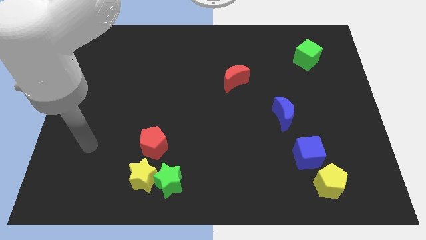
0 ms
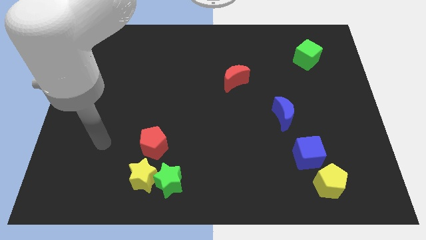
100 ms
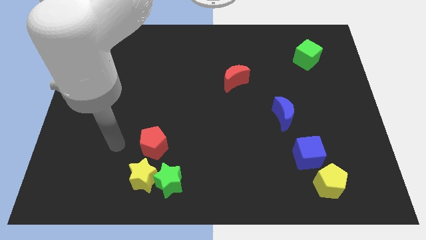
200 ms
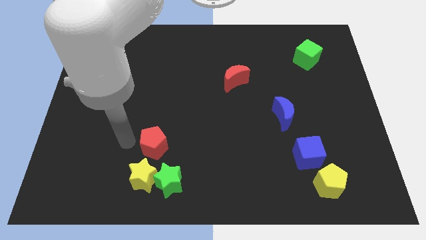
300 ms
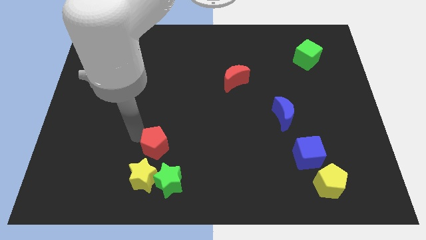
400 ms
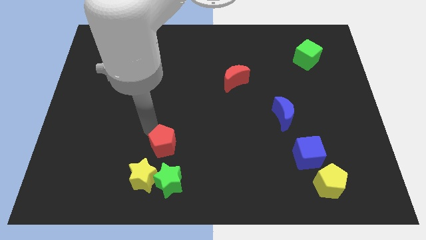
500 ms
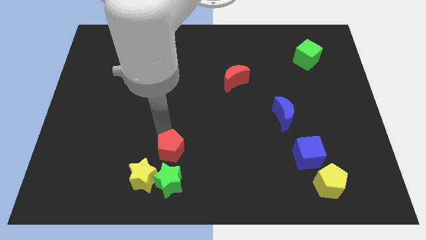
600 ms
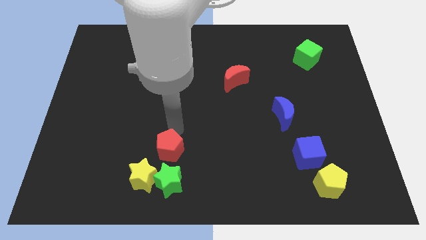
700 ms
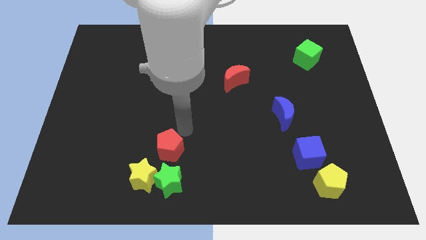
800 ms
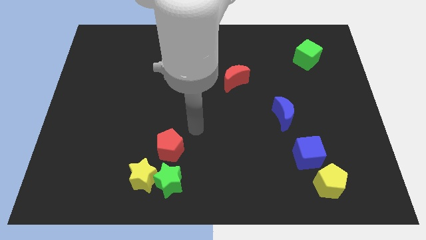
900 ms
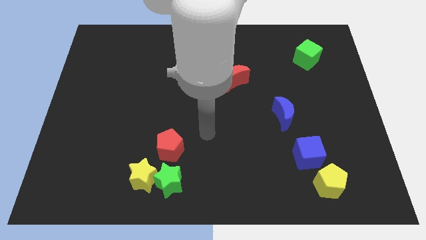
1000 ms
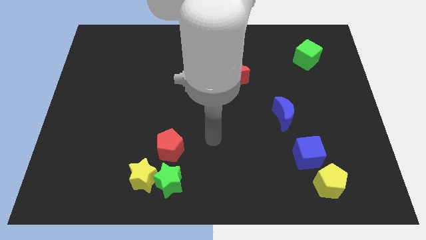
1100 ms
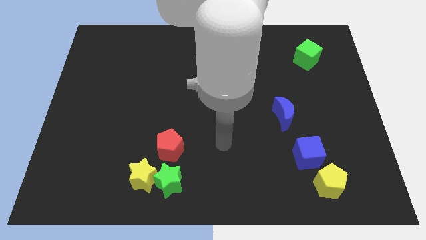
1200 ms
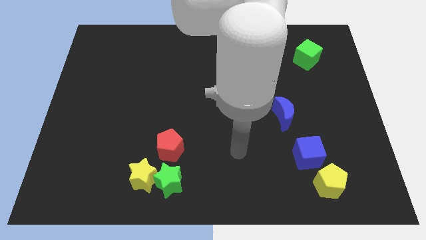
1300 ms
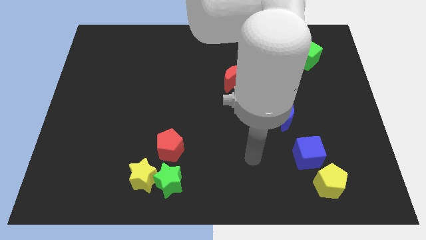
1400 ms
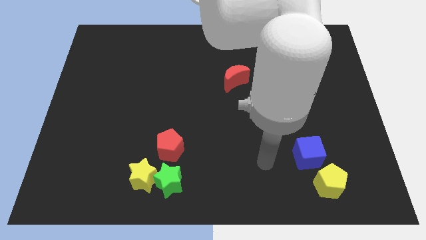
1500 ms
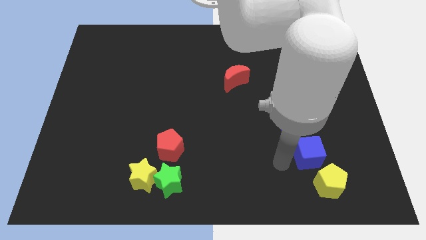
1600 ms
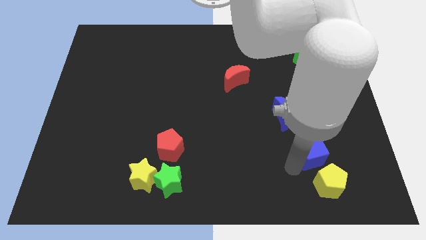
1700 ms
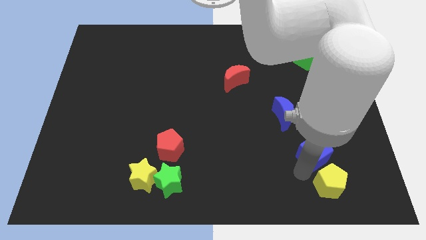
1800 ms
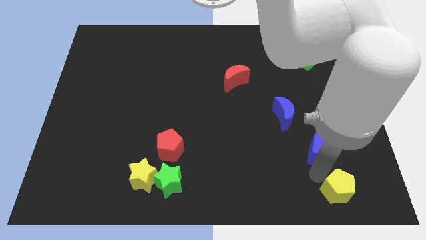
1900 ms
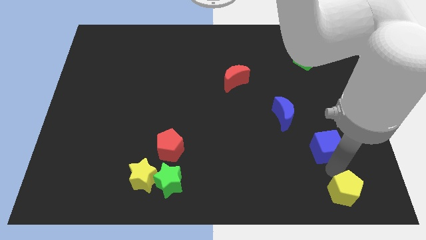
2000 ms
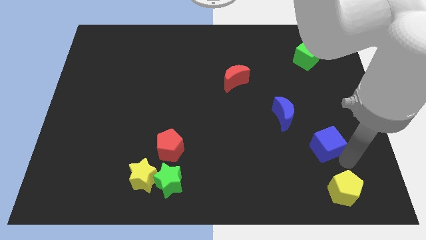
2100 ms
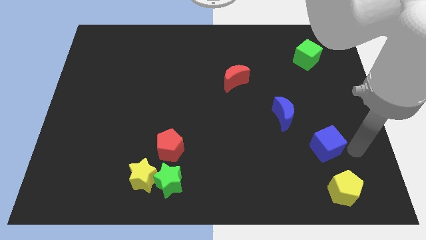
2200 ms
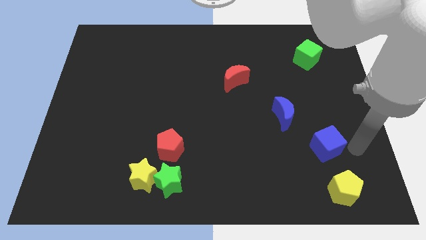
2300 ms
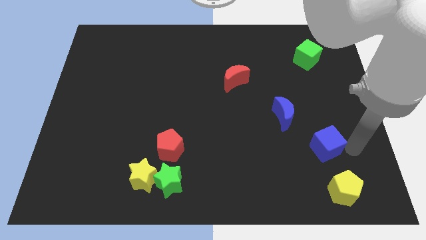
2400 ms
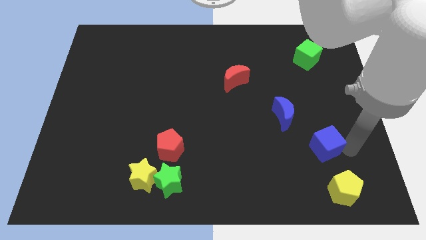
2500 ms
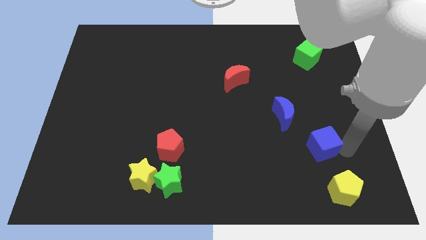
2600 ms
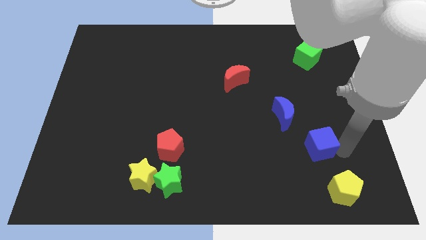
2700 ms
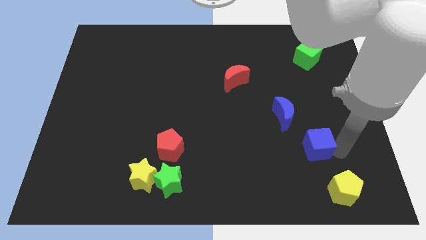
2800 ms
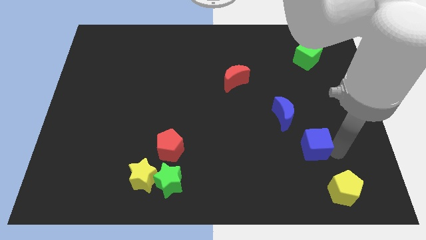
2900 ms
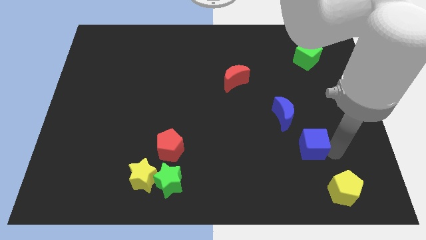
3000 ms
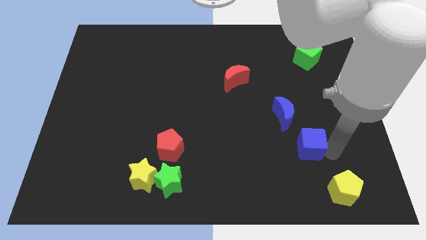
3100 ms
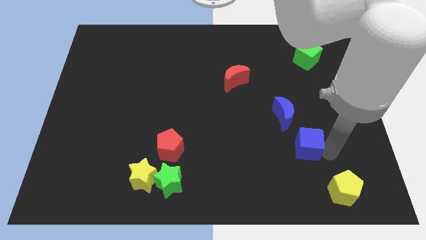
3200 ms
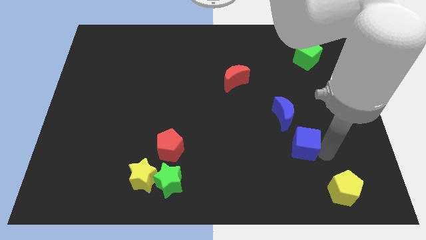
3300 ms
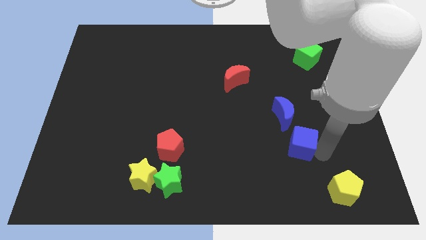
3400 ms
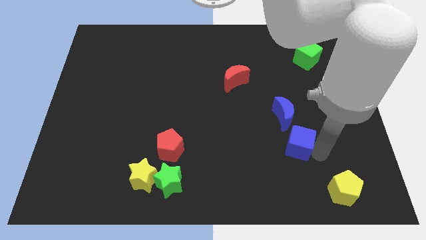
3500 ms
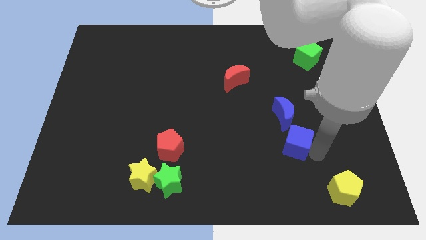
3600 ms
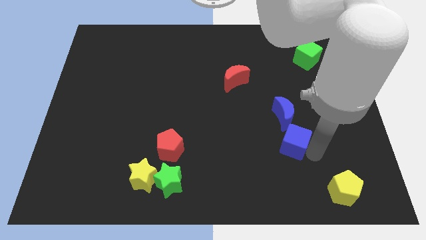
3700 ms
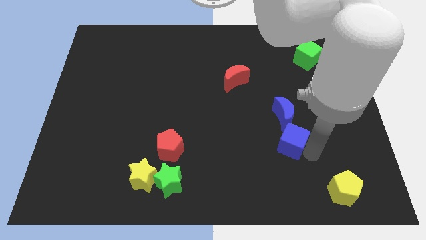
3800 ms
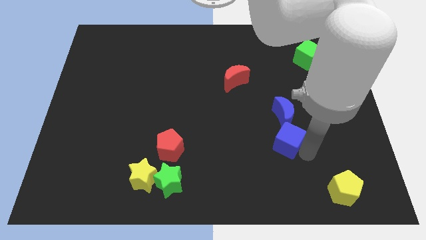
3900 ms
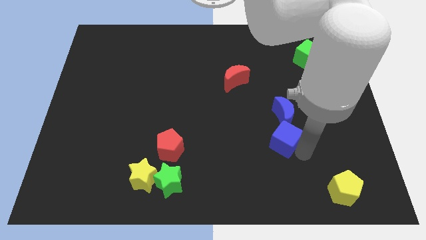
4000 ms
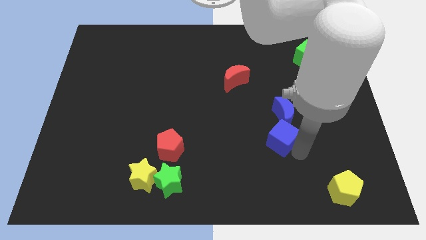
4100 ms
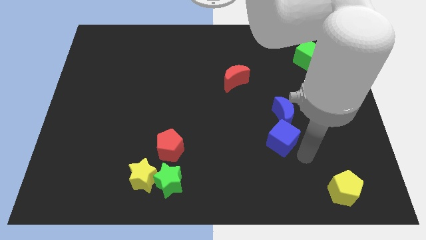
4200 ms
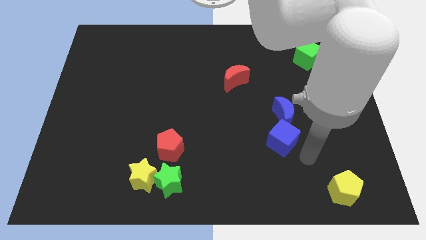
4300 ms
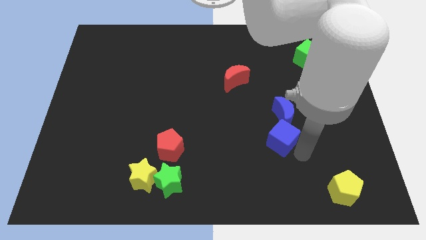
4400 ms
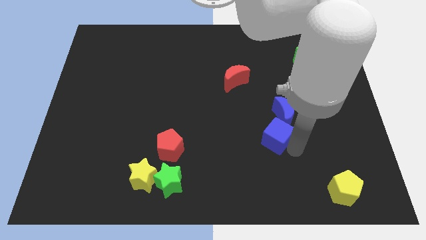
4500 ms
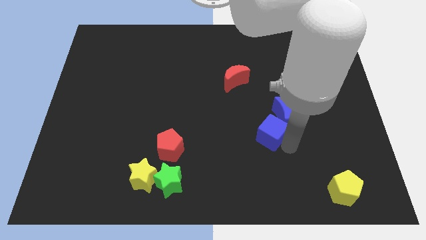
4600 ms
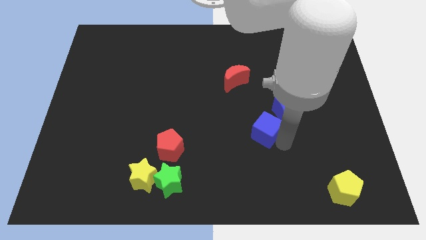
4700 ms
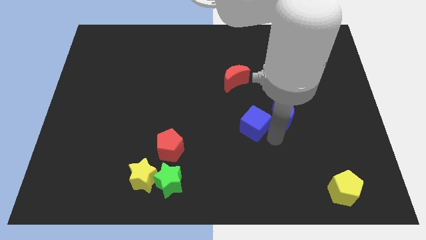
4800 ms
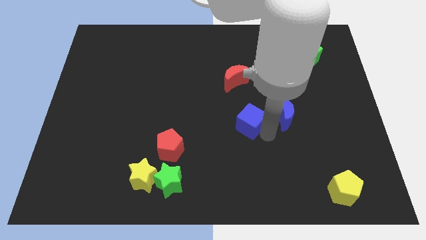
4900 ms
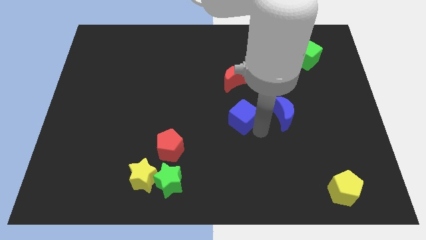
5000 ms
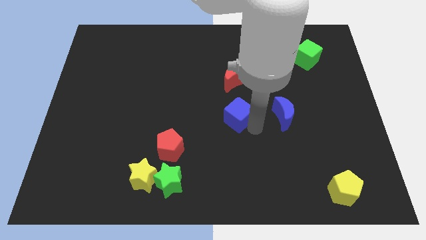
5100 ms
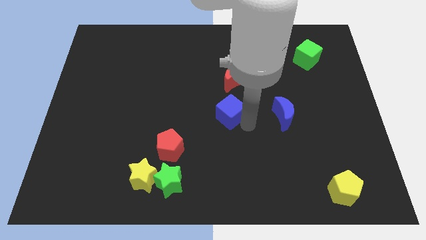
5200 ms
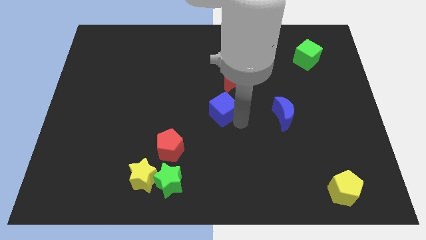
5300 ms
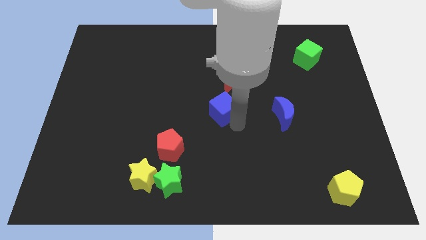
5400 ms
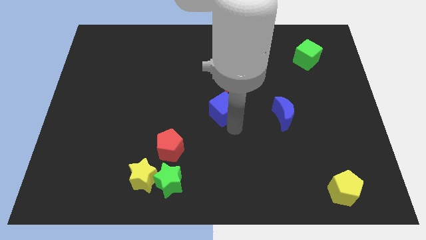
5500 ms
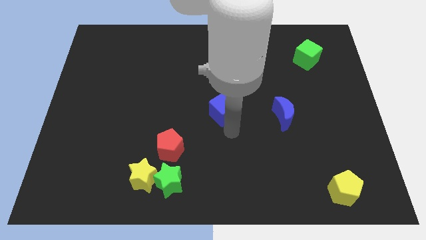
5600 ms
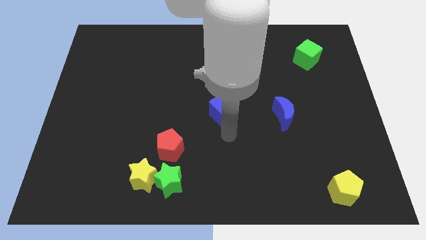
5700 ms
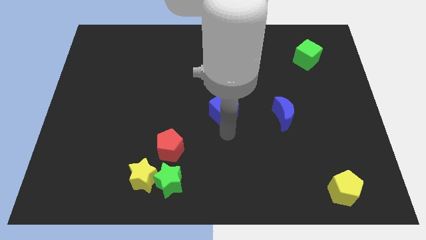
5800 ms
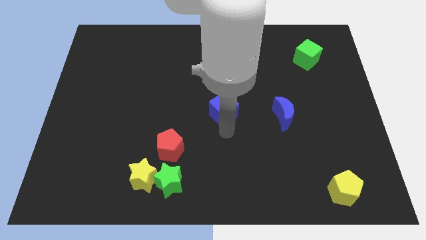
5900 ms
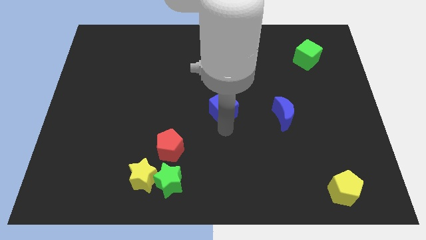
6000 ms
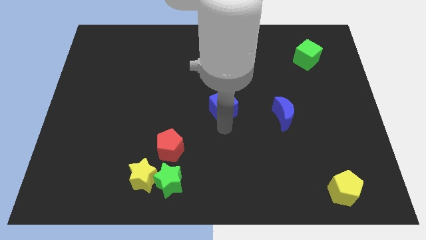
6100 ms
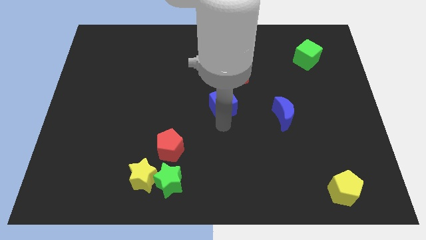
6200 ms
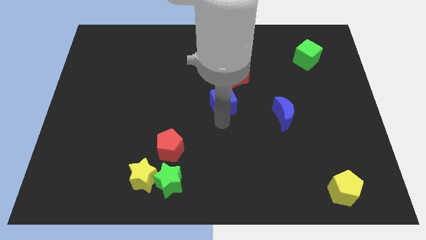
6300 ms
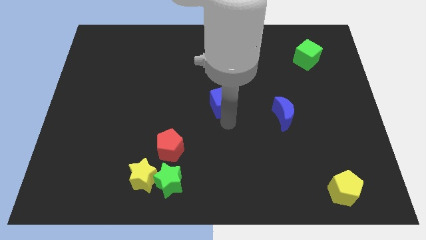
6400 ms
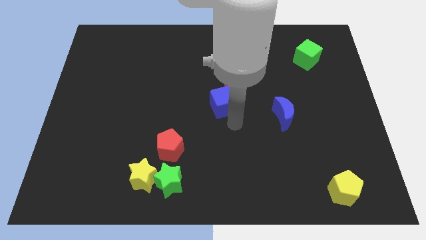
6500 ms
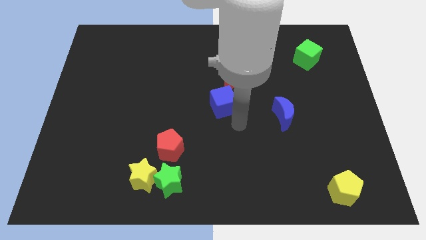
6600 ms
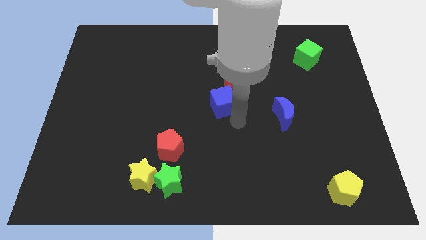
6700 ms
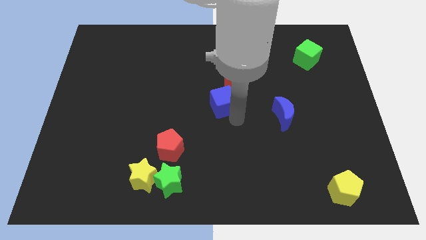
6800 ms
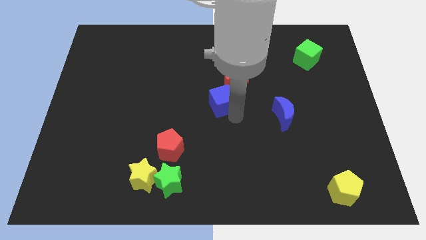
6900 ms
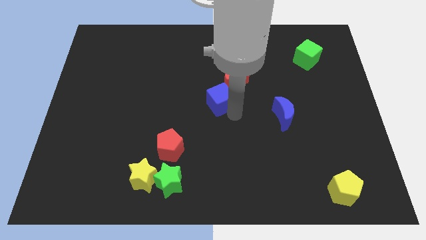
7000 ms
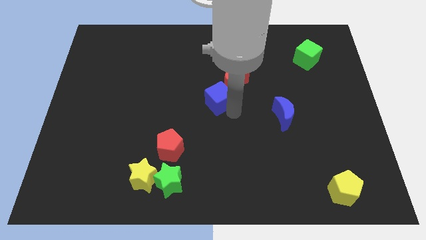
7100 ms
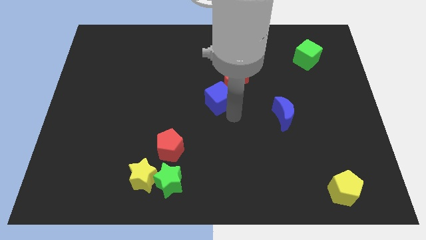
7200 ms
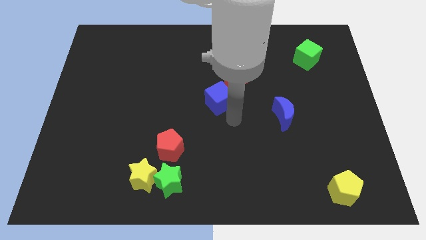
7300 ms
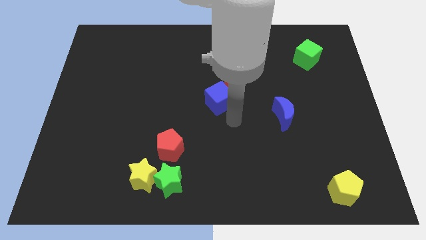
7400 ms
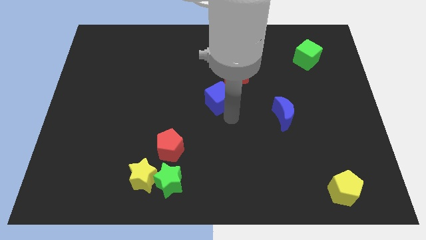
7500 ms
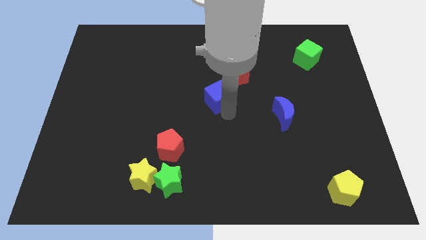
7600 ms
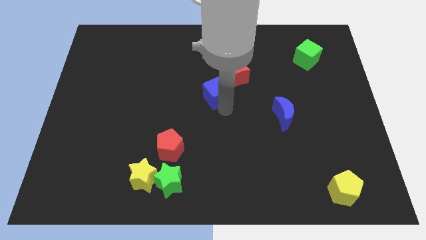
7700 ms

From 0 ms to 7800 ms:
put the blue cube just left of the red moon

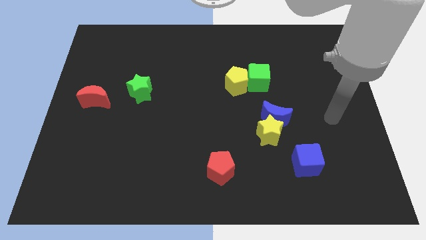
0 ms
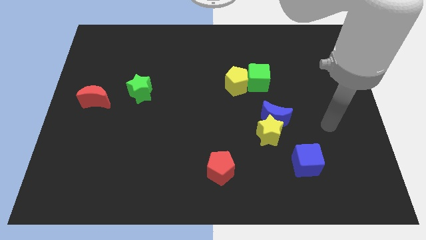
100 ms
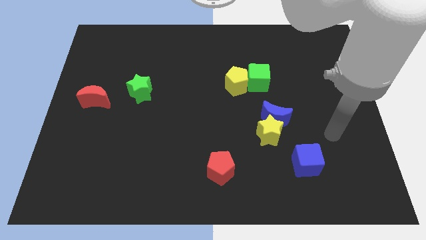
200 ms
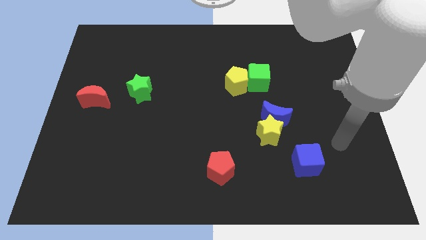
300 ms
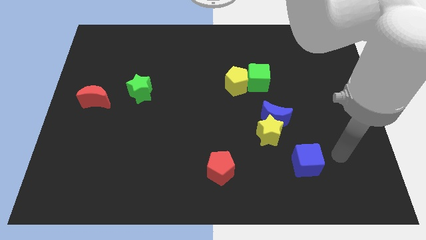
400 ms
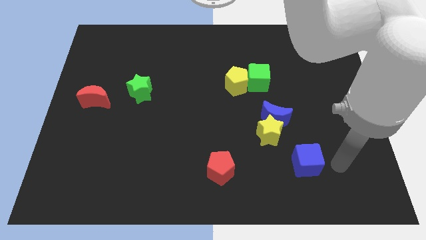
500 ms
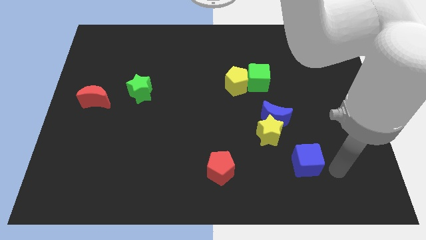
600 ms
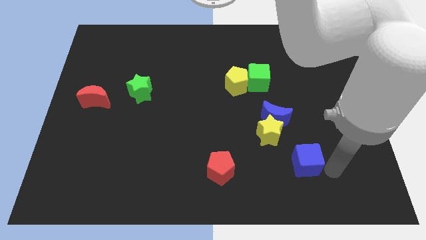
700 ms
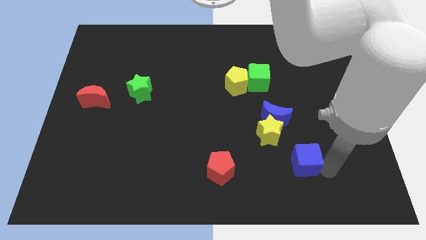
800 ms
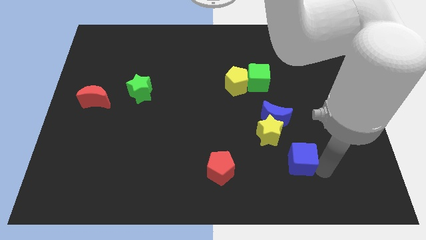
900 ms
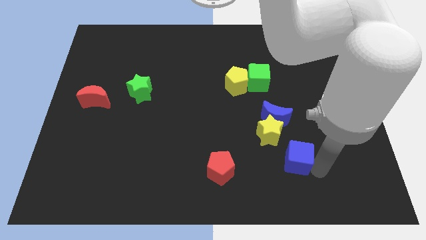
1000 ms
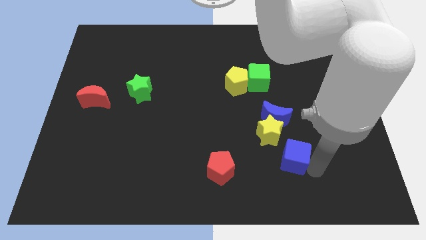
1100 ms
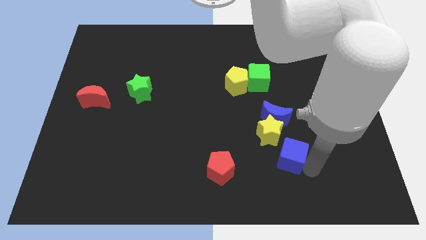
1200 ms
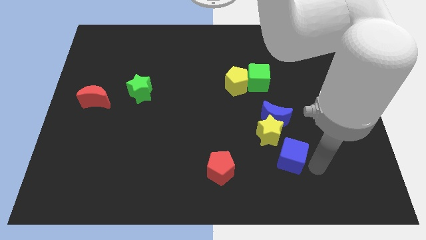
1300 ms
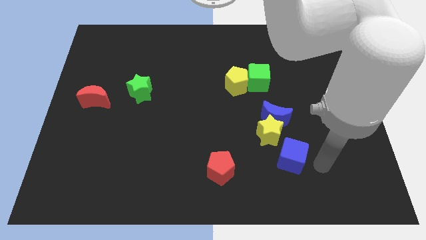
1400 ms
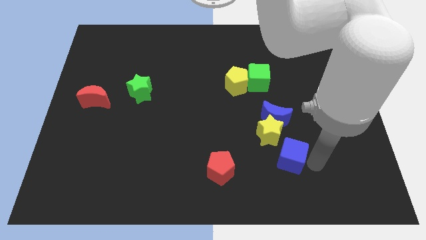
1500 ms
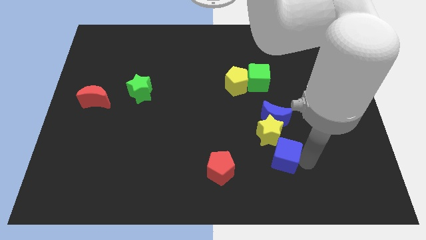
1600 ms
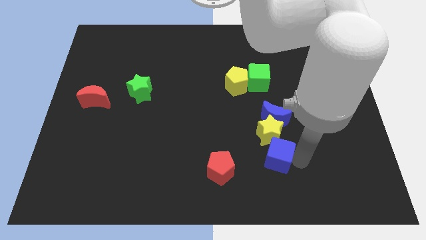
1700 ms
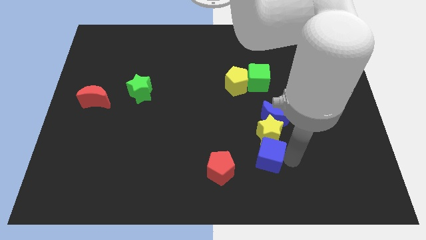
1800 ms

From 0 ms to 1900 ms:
slide the blue cube diagonally down and to the left of the yellow star
